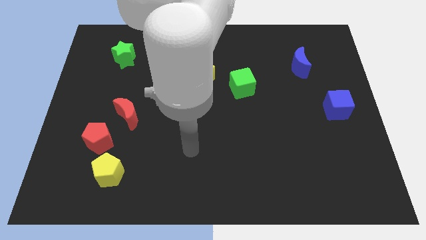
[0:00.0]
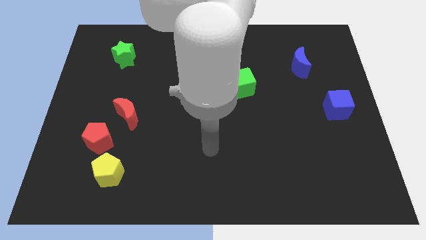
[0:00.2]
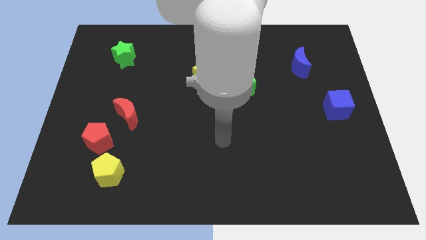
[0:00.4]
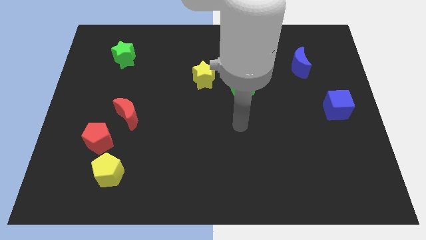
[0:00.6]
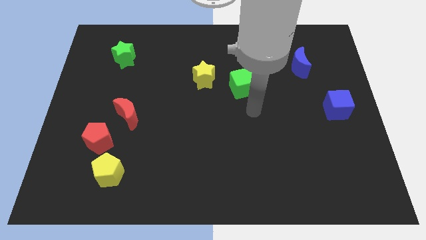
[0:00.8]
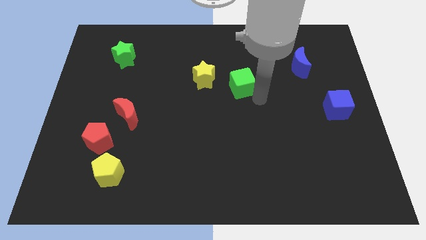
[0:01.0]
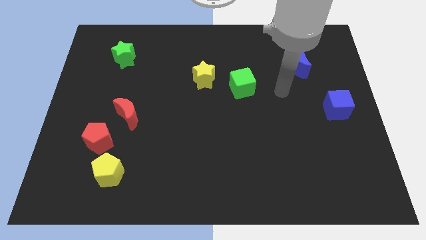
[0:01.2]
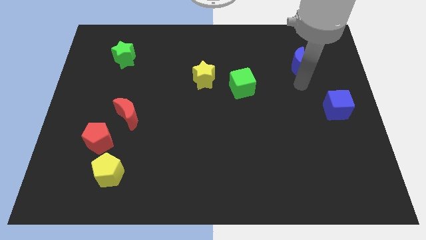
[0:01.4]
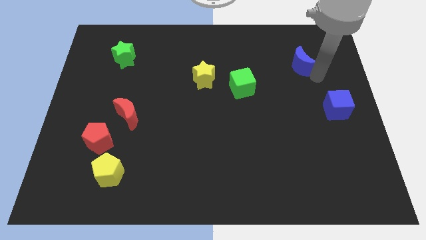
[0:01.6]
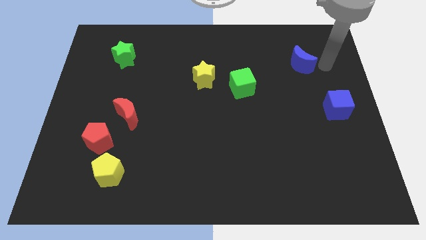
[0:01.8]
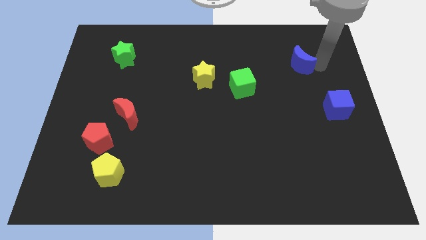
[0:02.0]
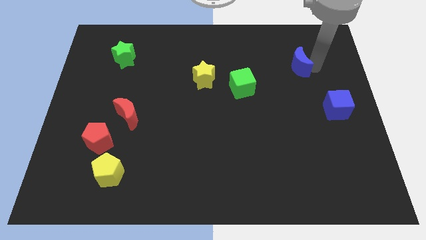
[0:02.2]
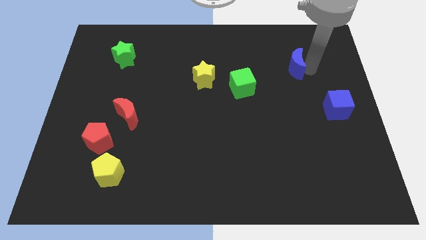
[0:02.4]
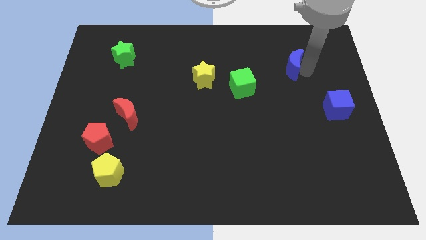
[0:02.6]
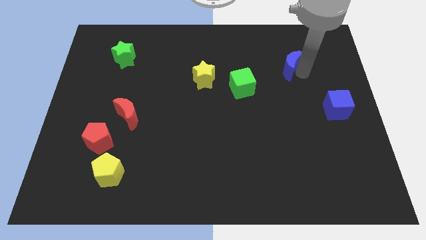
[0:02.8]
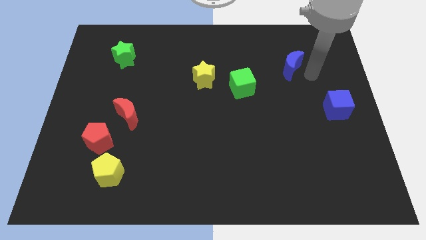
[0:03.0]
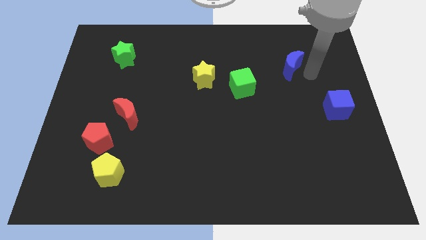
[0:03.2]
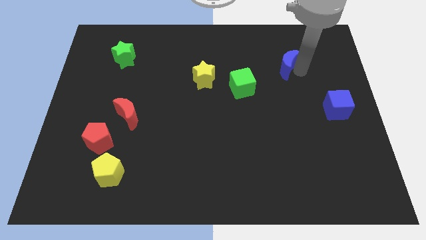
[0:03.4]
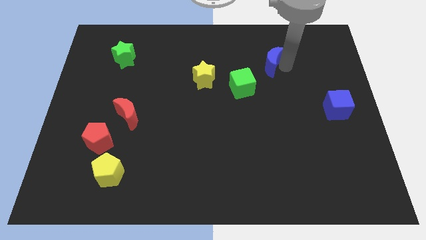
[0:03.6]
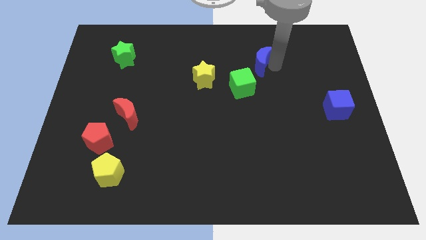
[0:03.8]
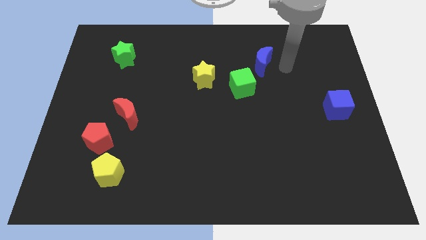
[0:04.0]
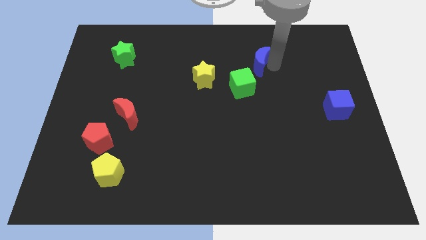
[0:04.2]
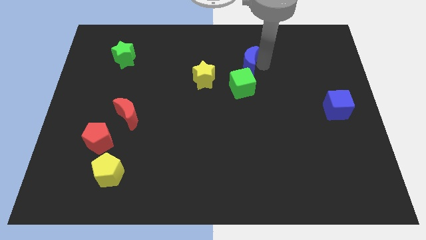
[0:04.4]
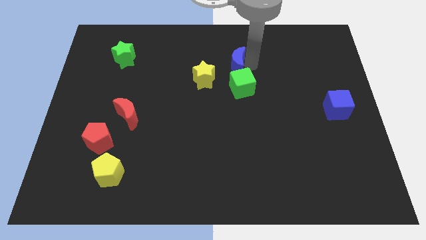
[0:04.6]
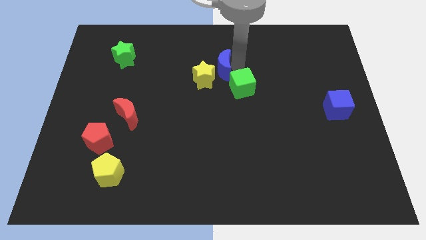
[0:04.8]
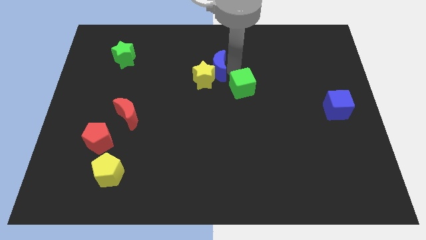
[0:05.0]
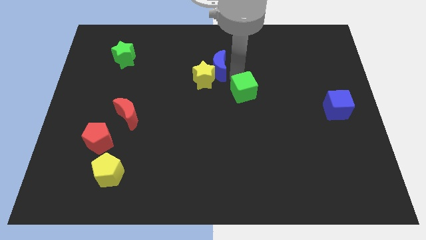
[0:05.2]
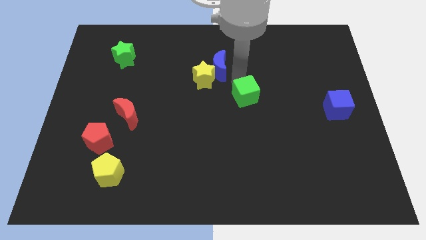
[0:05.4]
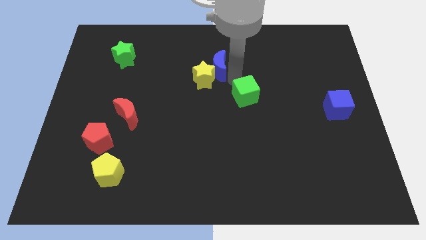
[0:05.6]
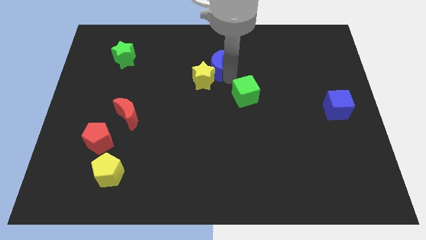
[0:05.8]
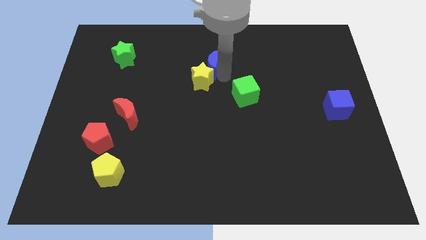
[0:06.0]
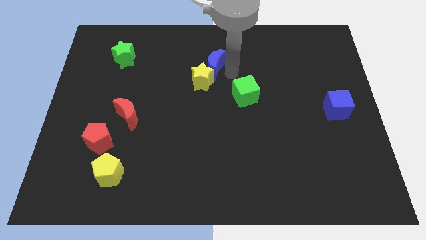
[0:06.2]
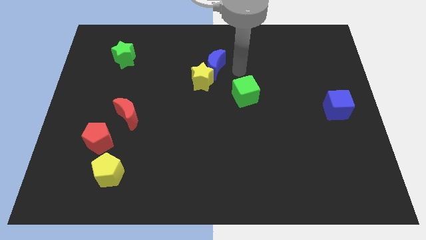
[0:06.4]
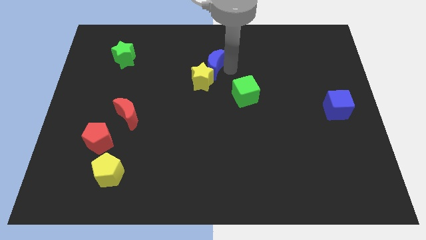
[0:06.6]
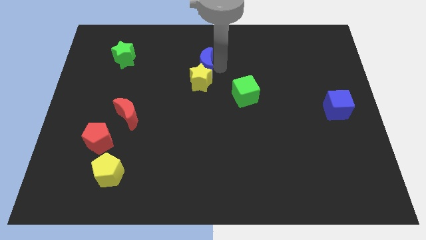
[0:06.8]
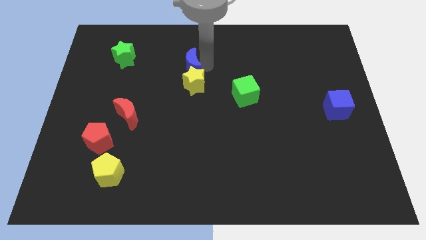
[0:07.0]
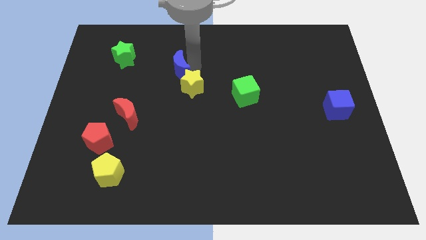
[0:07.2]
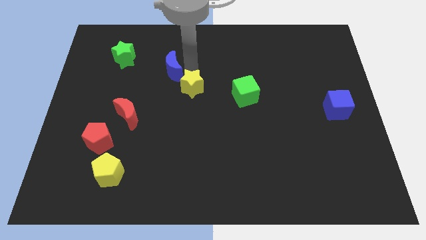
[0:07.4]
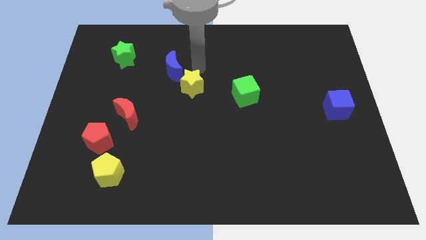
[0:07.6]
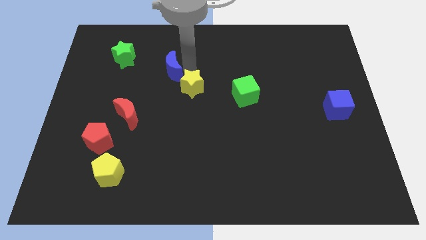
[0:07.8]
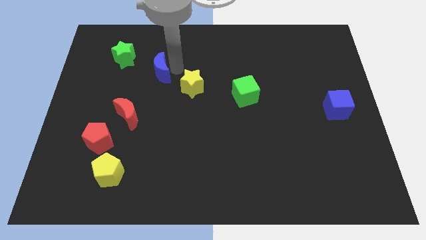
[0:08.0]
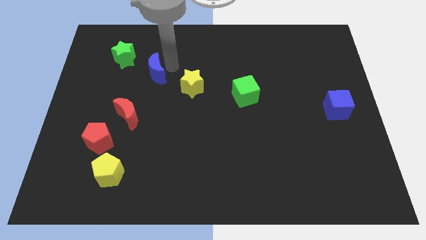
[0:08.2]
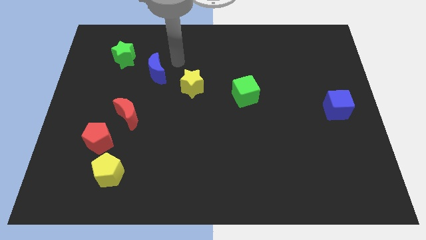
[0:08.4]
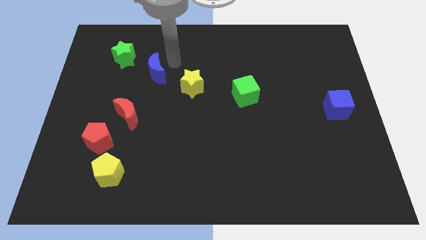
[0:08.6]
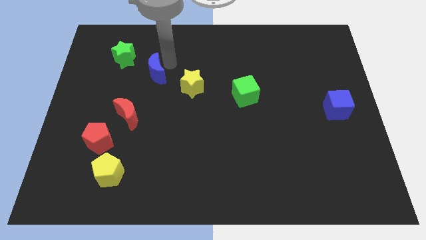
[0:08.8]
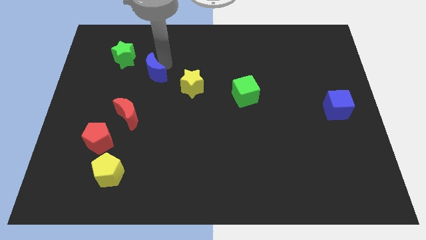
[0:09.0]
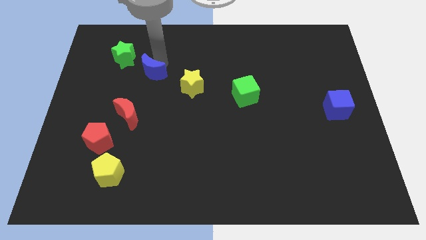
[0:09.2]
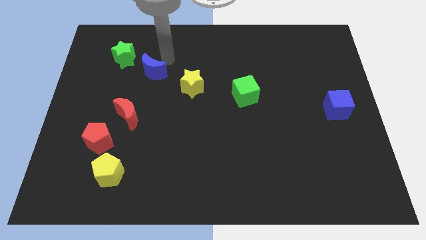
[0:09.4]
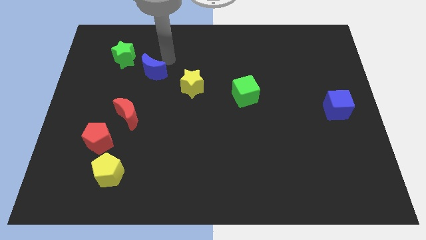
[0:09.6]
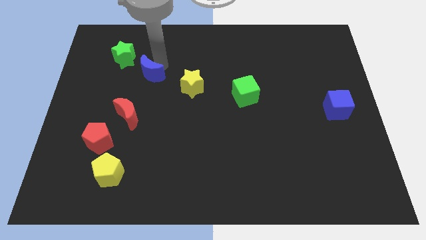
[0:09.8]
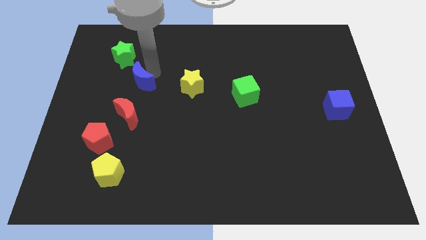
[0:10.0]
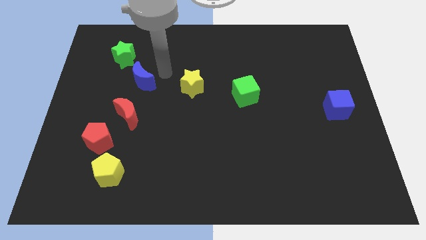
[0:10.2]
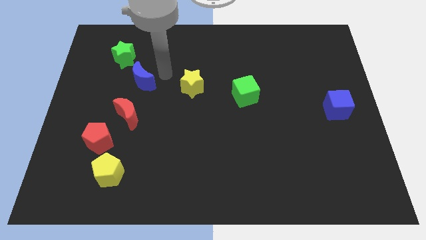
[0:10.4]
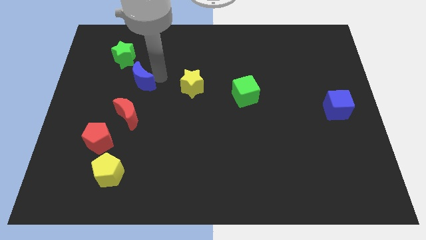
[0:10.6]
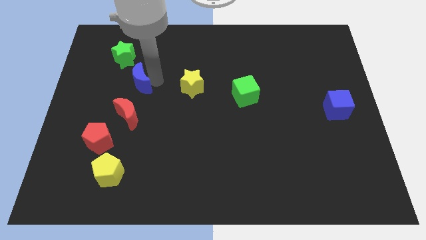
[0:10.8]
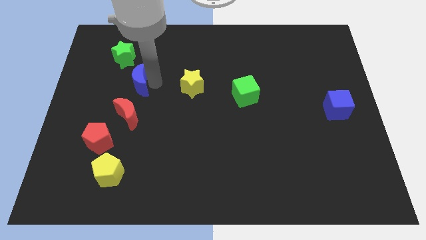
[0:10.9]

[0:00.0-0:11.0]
move the blue moon to the bottom side of the green star

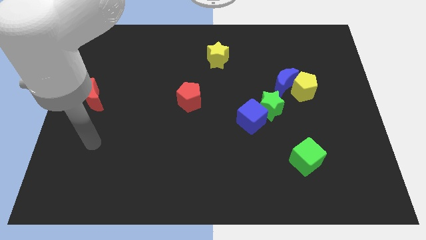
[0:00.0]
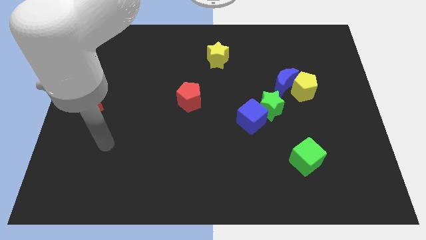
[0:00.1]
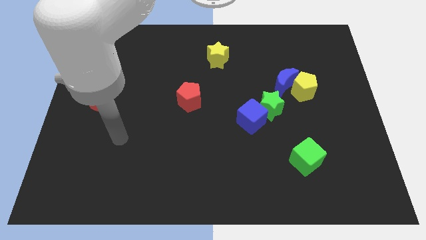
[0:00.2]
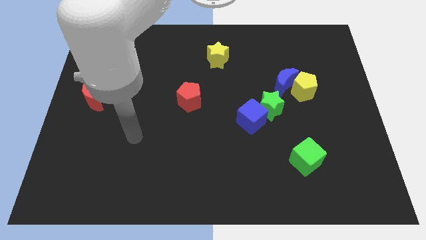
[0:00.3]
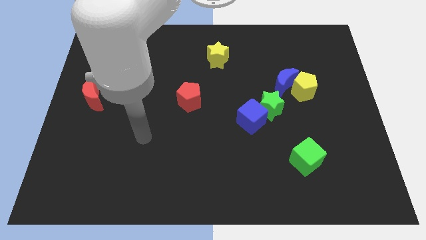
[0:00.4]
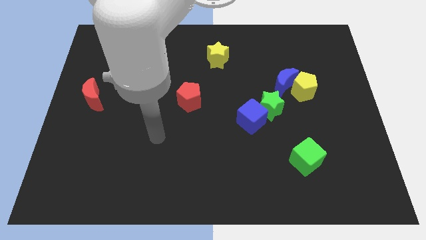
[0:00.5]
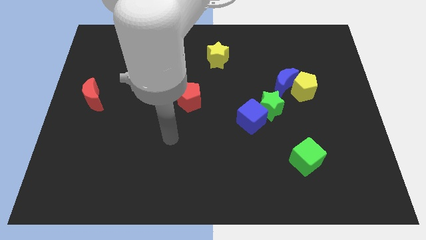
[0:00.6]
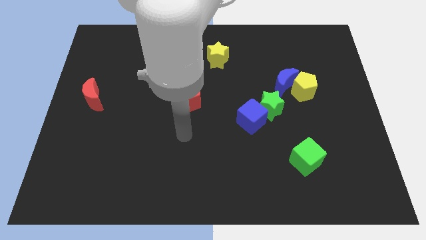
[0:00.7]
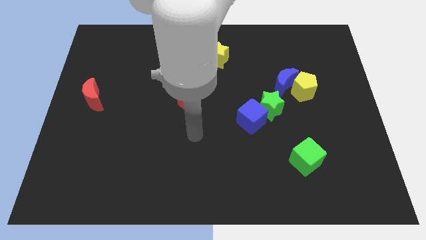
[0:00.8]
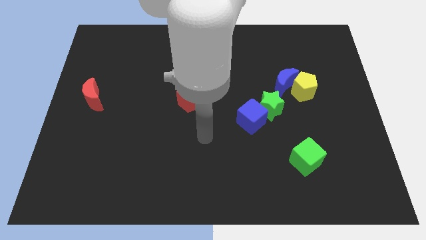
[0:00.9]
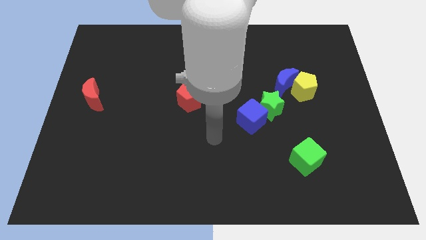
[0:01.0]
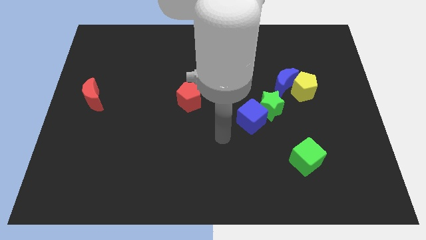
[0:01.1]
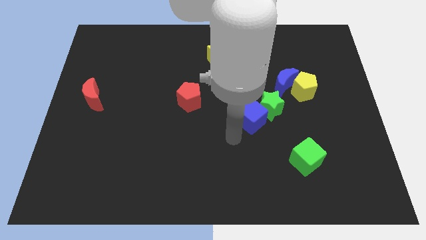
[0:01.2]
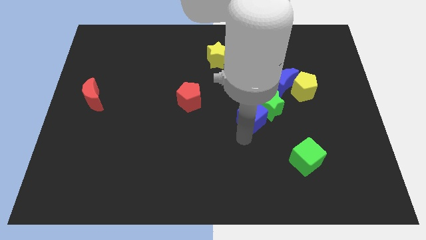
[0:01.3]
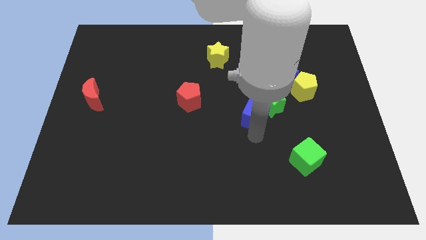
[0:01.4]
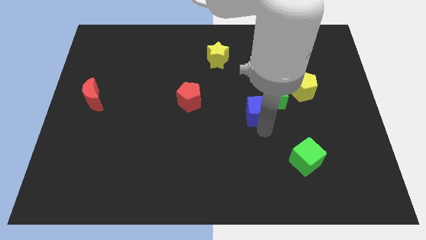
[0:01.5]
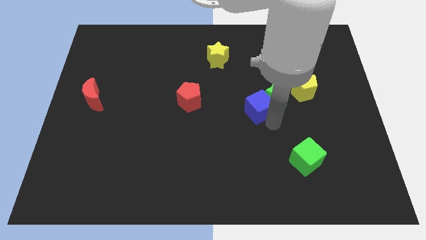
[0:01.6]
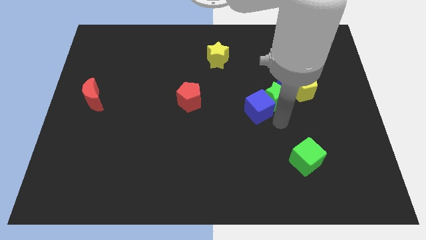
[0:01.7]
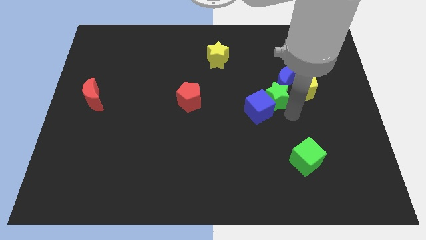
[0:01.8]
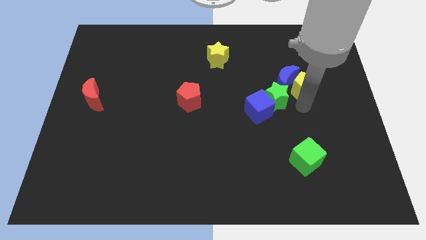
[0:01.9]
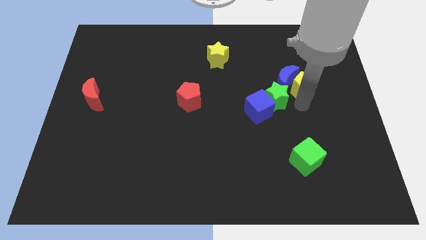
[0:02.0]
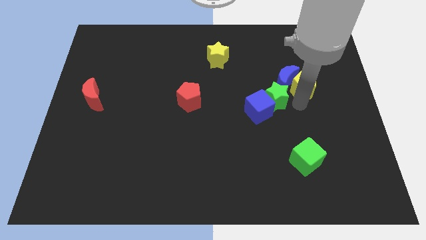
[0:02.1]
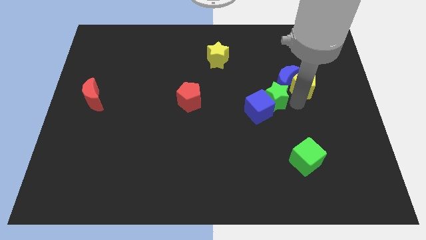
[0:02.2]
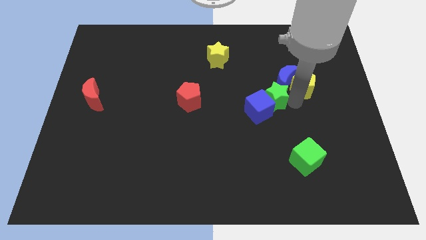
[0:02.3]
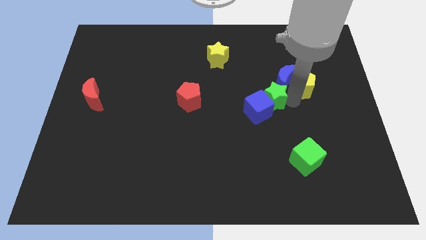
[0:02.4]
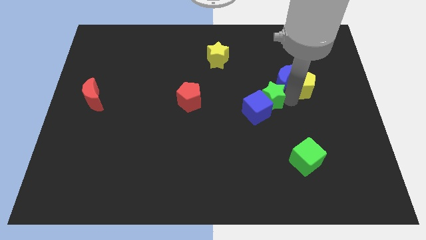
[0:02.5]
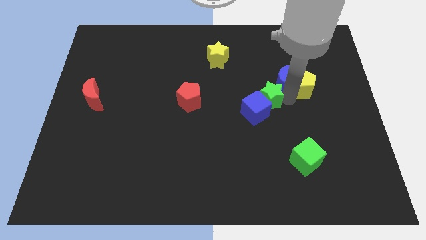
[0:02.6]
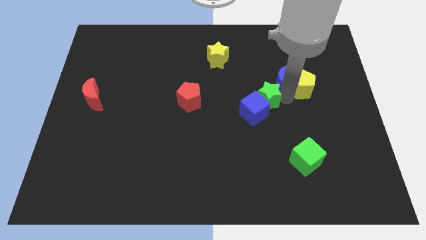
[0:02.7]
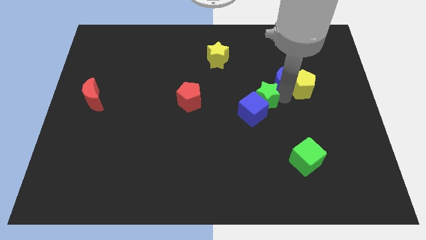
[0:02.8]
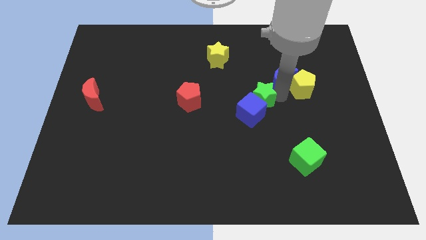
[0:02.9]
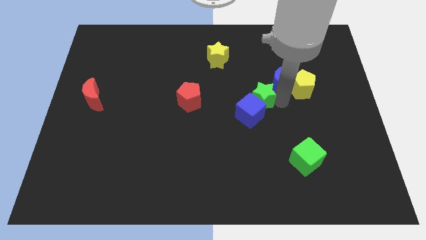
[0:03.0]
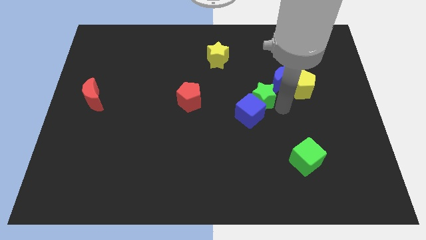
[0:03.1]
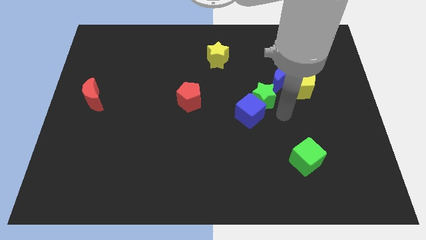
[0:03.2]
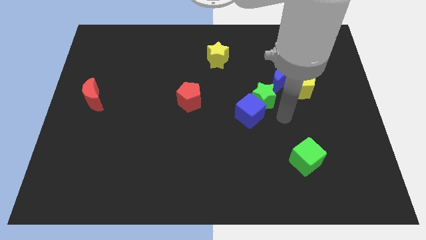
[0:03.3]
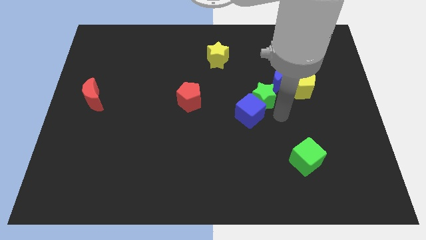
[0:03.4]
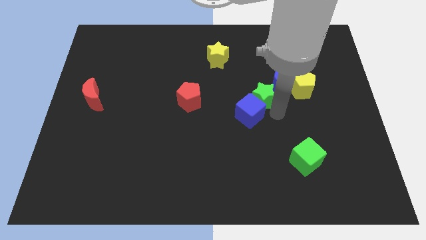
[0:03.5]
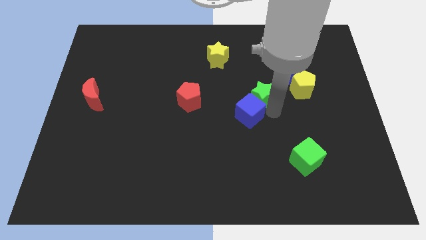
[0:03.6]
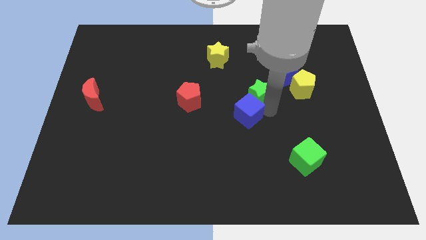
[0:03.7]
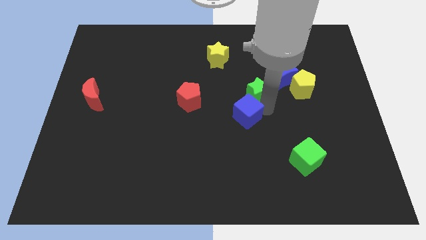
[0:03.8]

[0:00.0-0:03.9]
slide the green star to the left side of the blue moon
